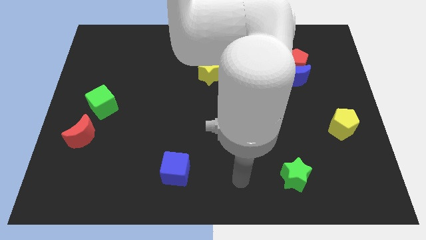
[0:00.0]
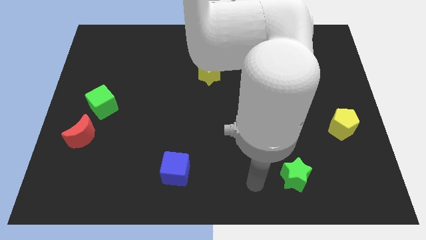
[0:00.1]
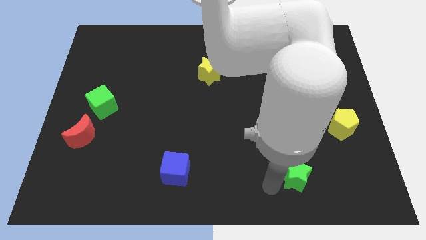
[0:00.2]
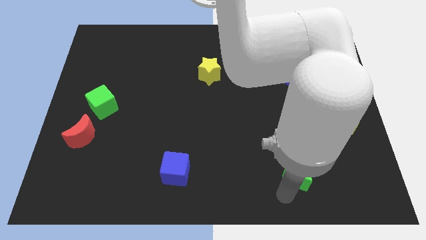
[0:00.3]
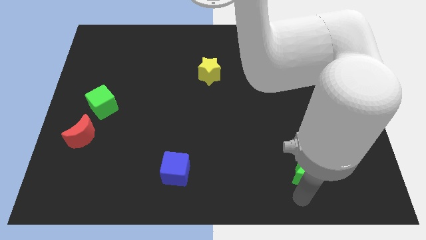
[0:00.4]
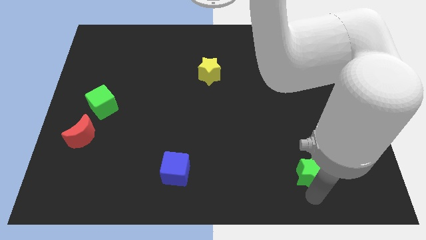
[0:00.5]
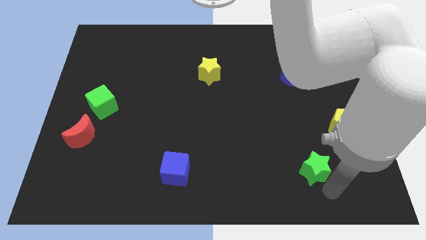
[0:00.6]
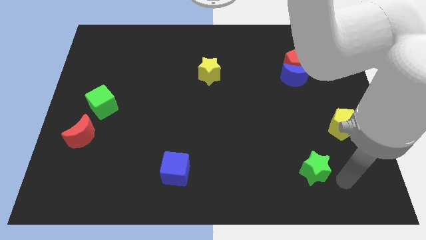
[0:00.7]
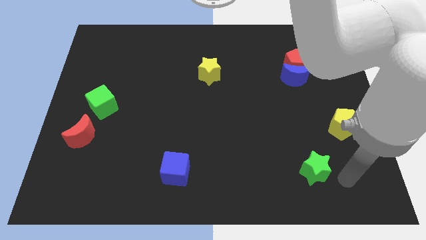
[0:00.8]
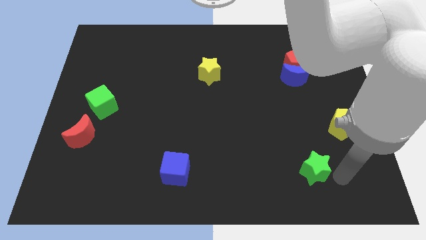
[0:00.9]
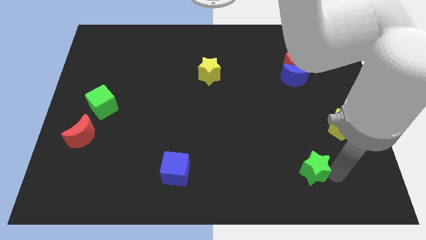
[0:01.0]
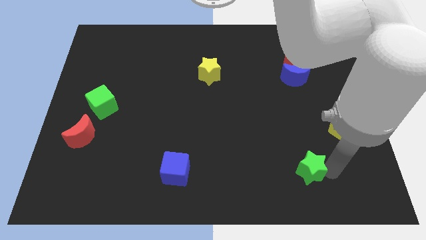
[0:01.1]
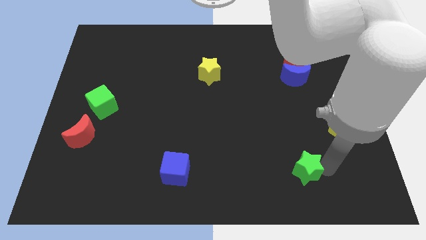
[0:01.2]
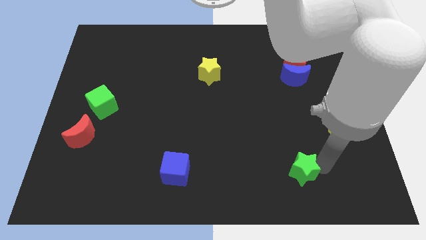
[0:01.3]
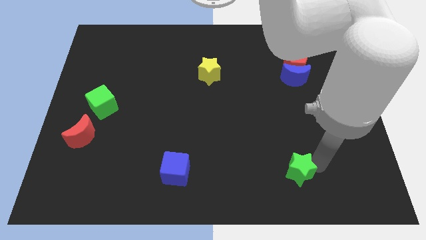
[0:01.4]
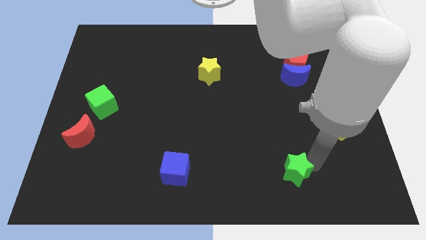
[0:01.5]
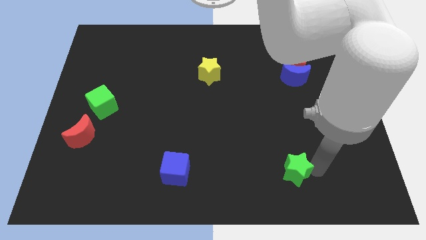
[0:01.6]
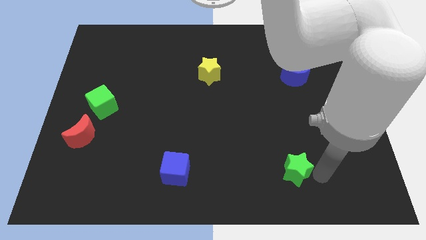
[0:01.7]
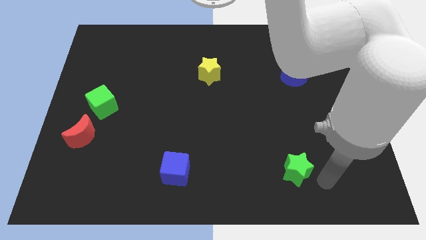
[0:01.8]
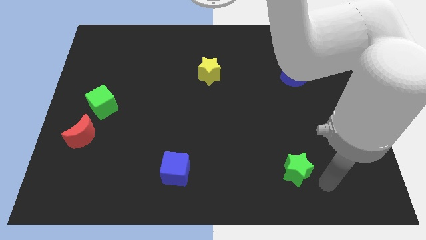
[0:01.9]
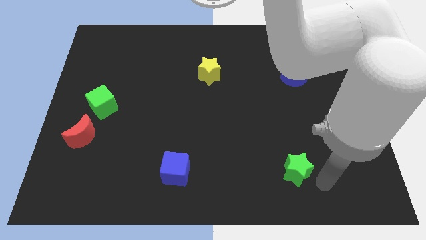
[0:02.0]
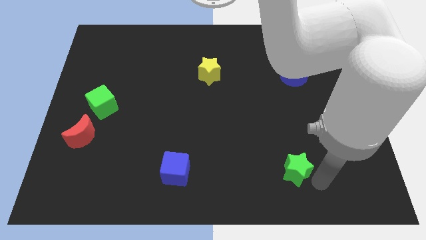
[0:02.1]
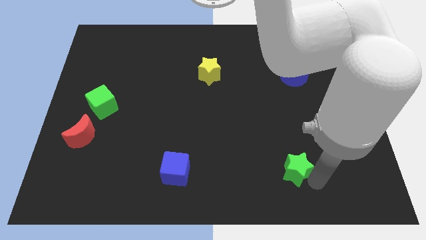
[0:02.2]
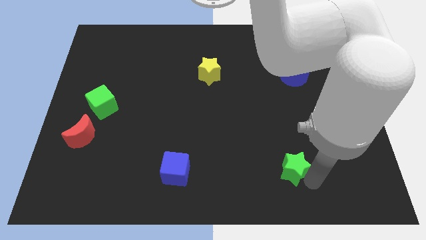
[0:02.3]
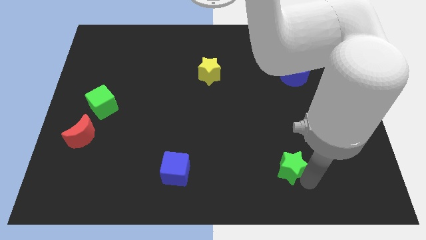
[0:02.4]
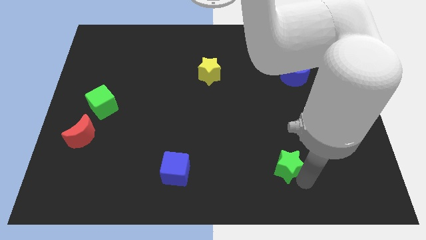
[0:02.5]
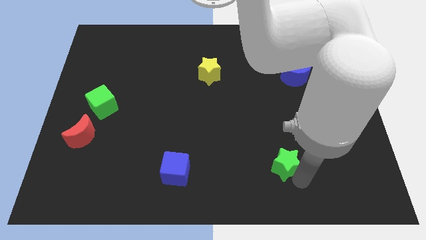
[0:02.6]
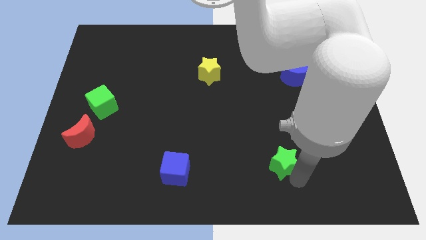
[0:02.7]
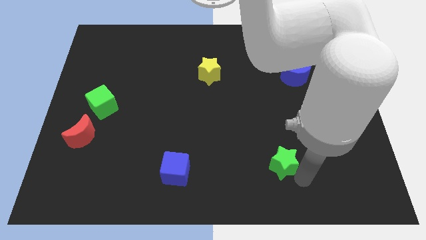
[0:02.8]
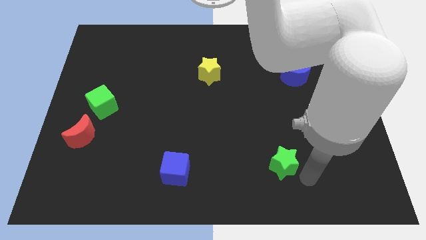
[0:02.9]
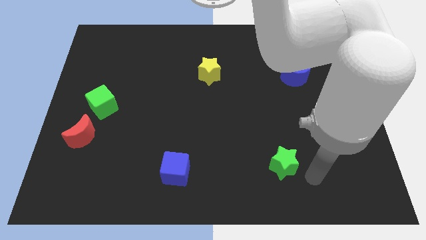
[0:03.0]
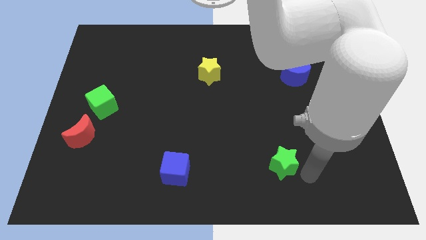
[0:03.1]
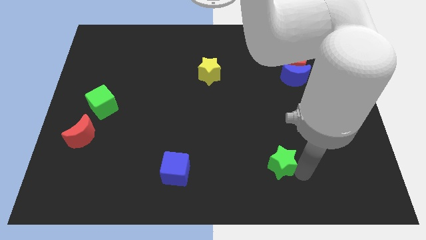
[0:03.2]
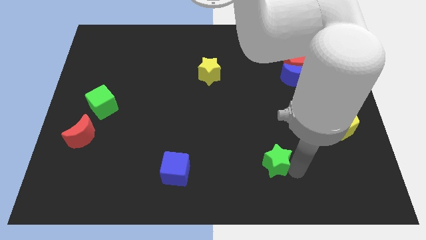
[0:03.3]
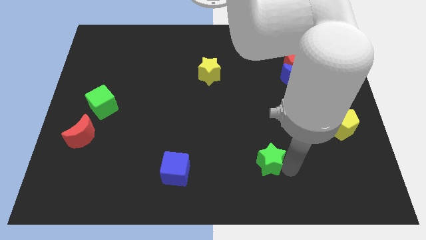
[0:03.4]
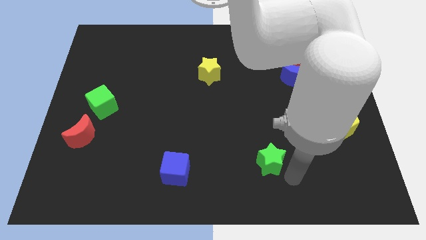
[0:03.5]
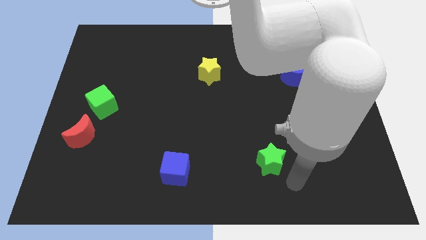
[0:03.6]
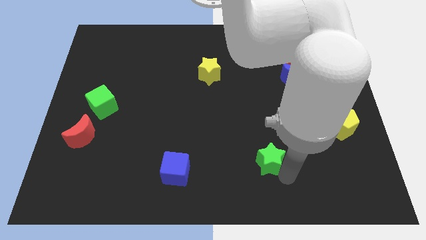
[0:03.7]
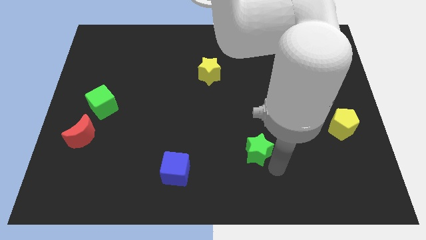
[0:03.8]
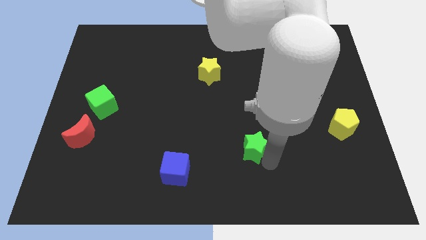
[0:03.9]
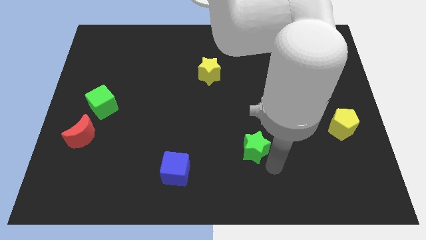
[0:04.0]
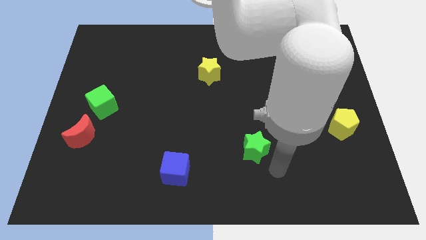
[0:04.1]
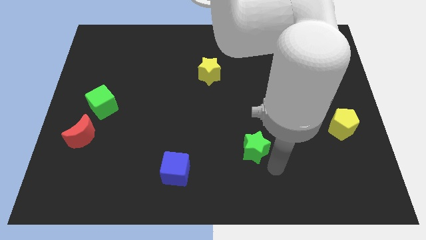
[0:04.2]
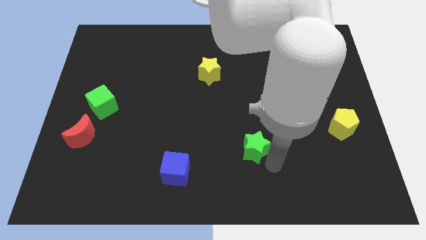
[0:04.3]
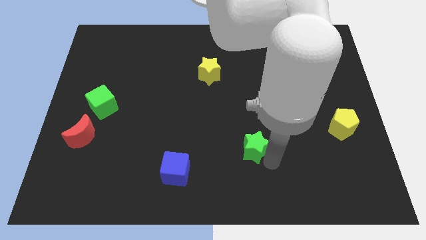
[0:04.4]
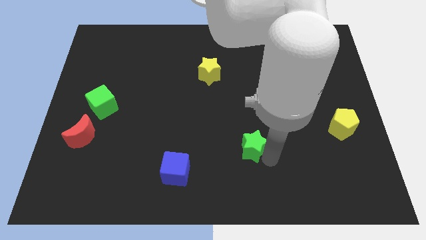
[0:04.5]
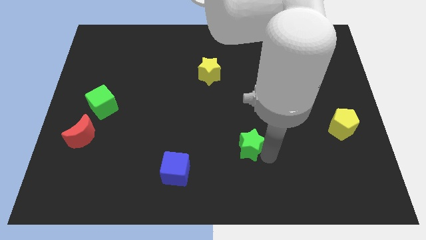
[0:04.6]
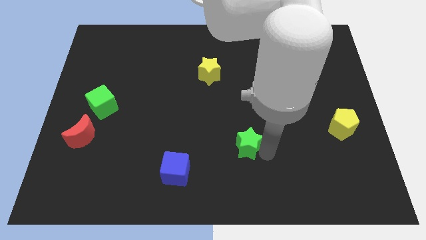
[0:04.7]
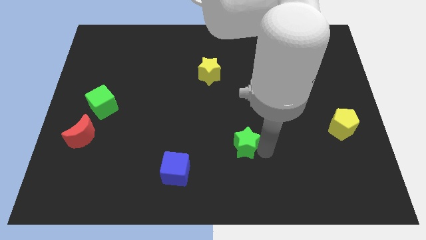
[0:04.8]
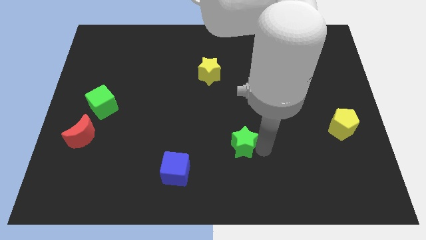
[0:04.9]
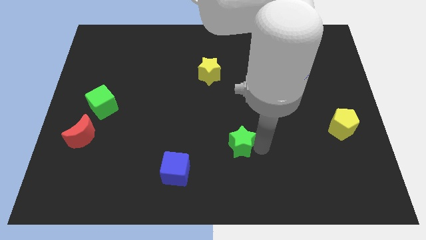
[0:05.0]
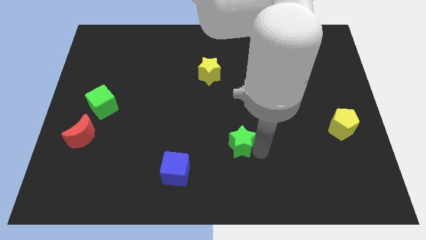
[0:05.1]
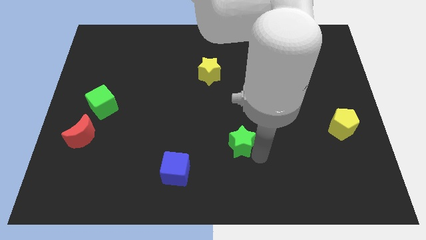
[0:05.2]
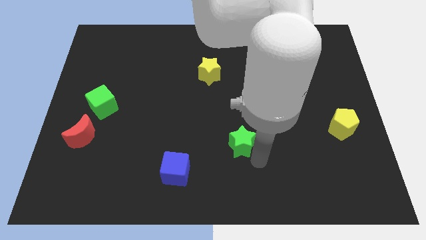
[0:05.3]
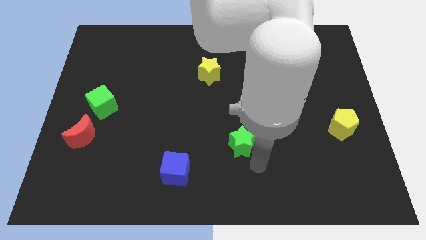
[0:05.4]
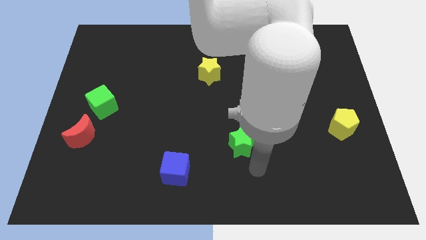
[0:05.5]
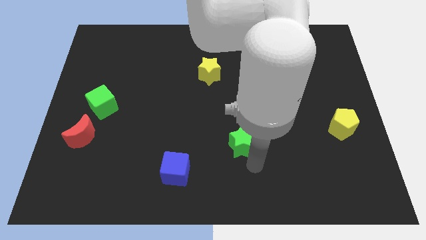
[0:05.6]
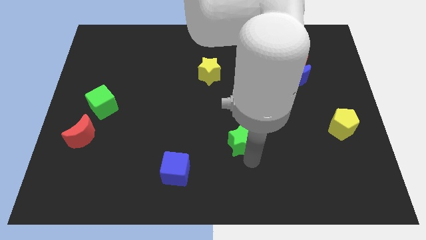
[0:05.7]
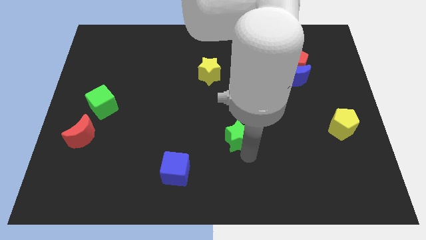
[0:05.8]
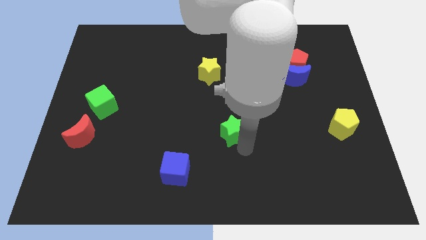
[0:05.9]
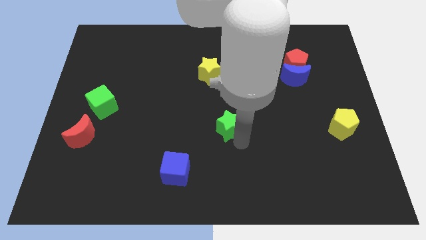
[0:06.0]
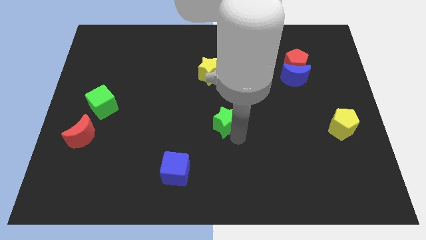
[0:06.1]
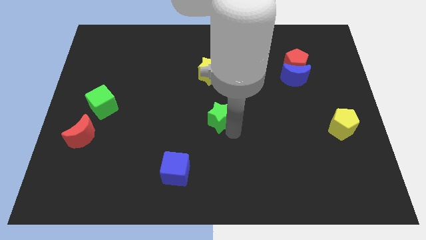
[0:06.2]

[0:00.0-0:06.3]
push the green star upwards and left

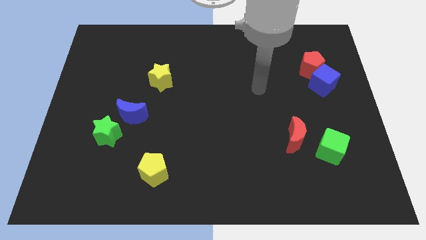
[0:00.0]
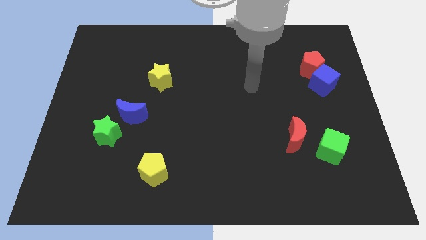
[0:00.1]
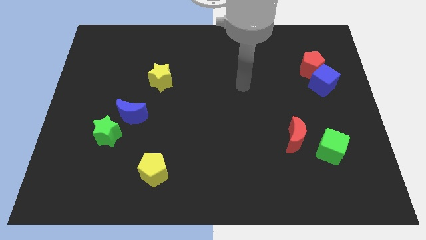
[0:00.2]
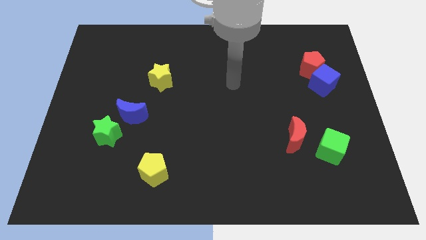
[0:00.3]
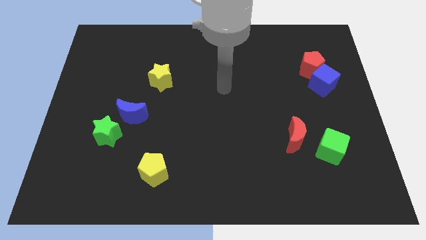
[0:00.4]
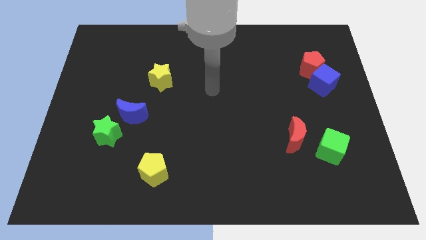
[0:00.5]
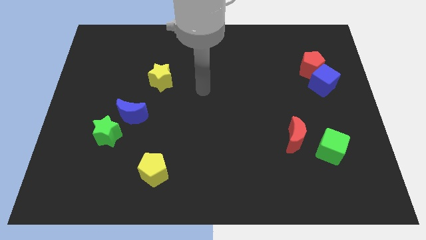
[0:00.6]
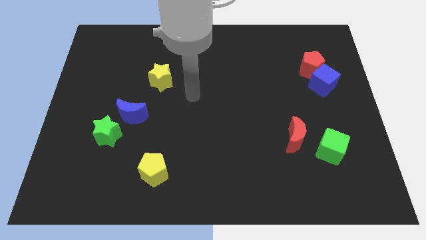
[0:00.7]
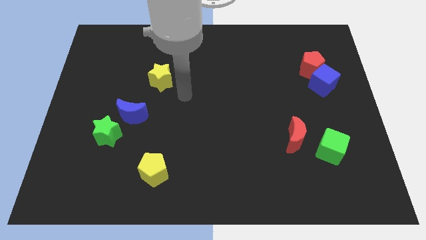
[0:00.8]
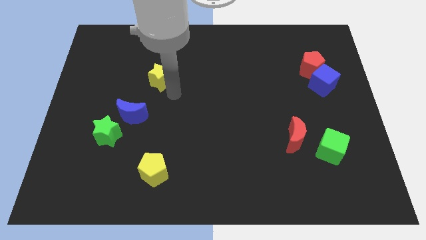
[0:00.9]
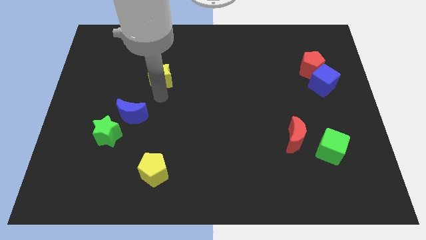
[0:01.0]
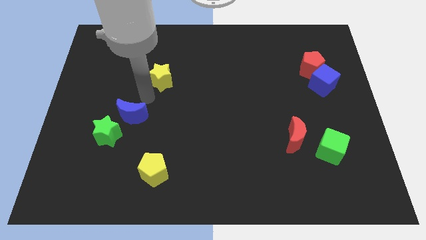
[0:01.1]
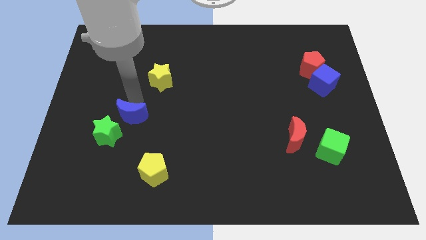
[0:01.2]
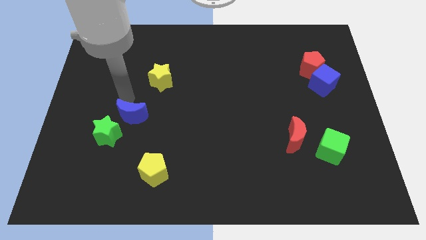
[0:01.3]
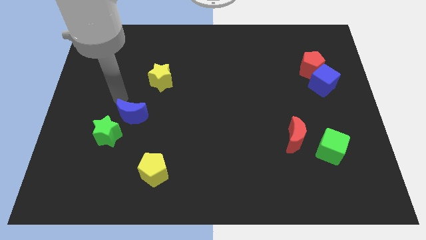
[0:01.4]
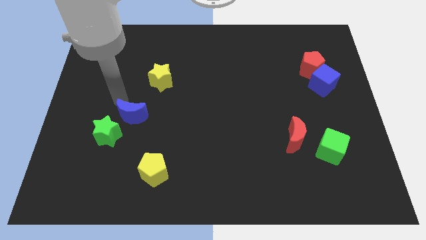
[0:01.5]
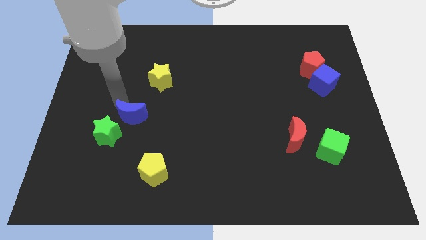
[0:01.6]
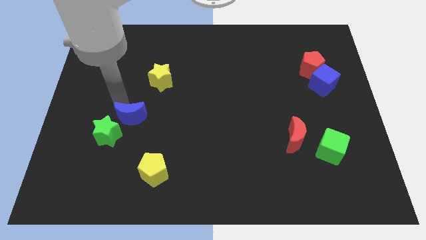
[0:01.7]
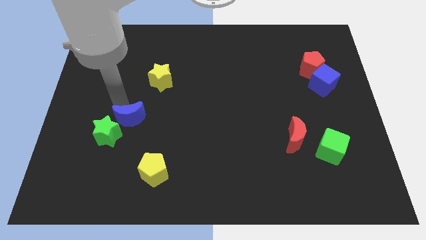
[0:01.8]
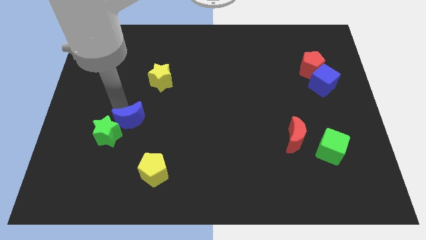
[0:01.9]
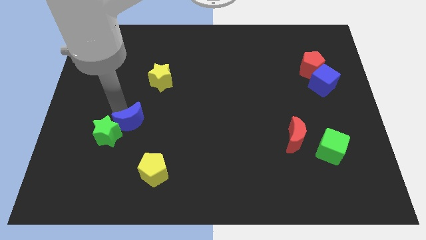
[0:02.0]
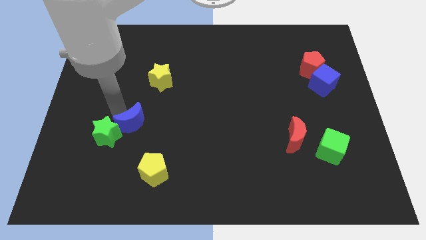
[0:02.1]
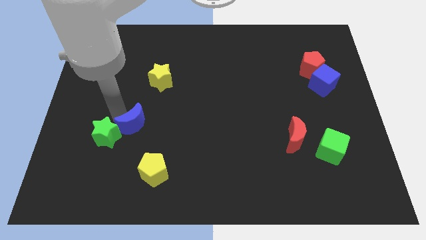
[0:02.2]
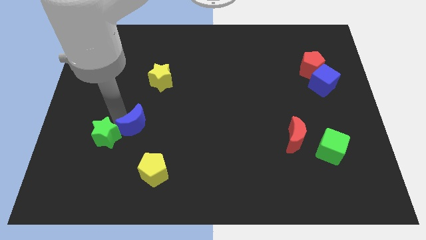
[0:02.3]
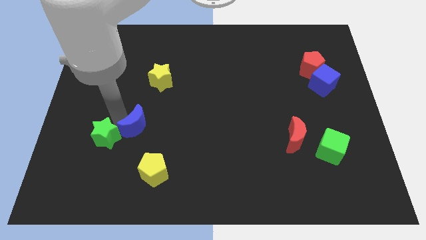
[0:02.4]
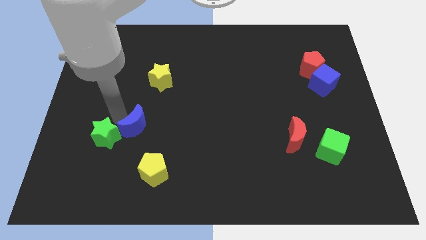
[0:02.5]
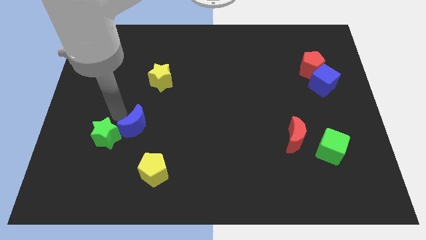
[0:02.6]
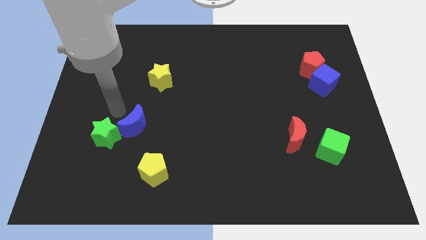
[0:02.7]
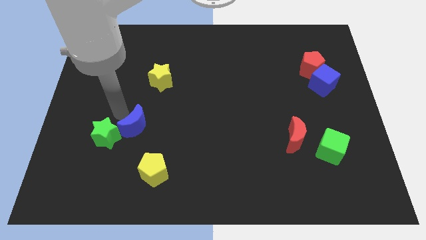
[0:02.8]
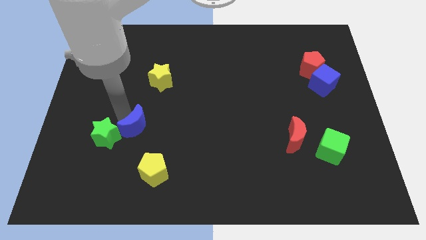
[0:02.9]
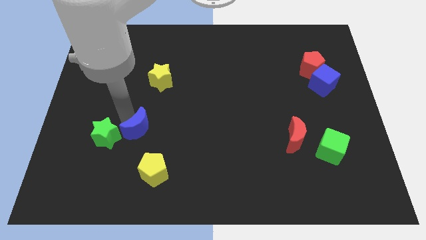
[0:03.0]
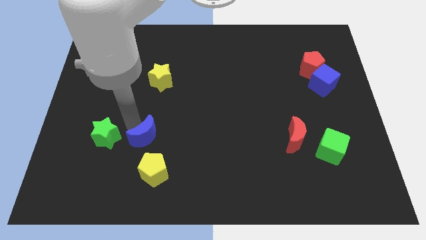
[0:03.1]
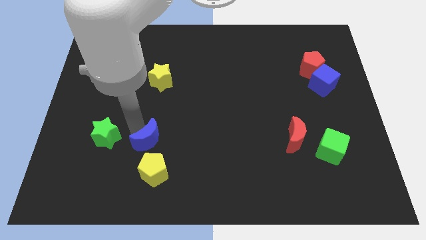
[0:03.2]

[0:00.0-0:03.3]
push the blue moon slightly downwards and to the right diagonally
